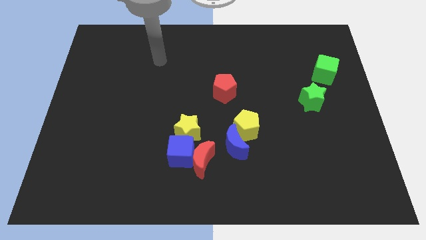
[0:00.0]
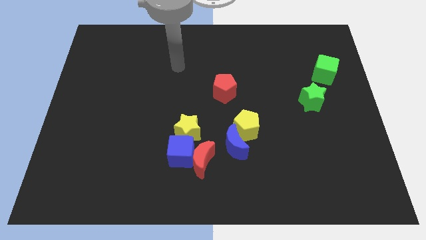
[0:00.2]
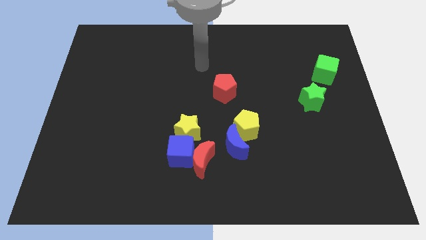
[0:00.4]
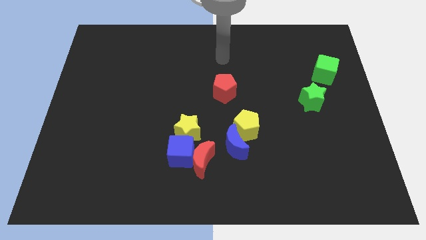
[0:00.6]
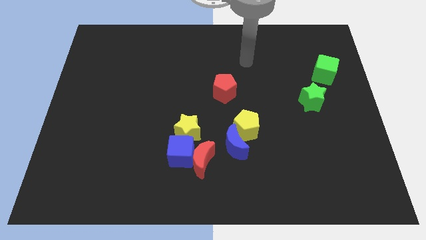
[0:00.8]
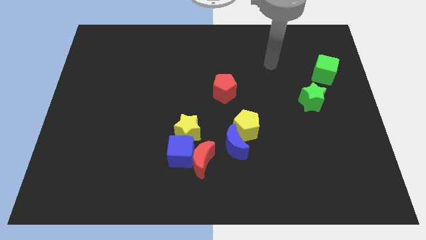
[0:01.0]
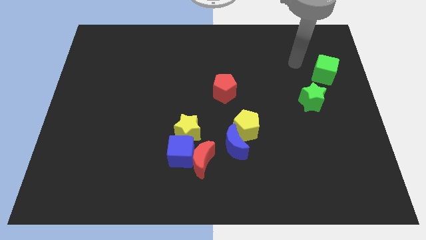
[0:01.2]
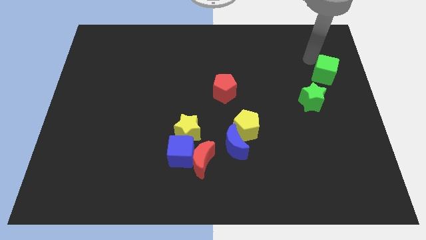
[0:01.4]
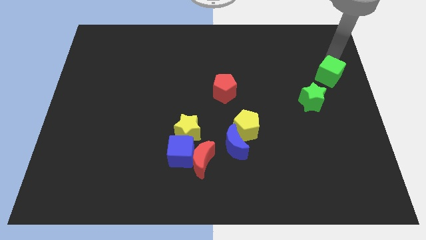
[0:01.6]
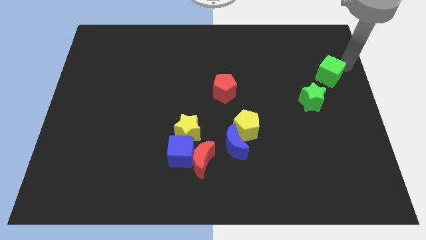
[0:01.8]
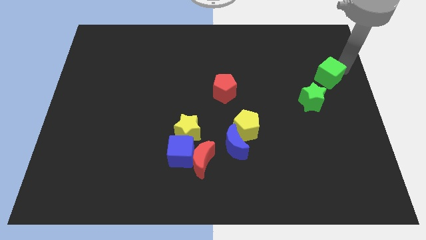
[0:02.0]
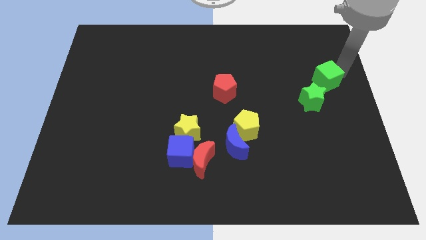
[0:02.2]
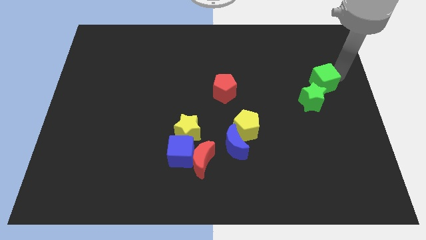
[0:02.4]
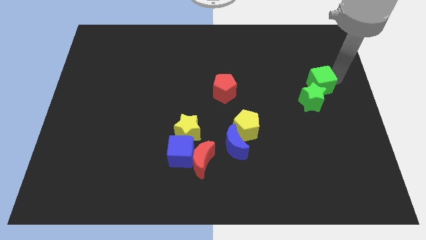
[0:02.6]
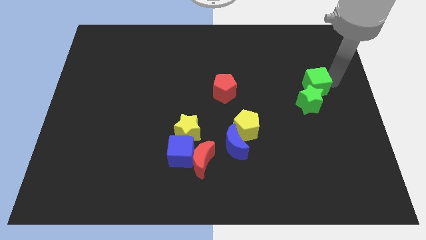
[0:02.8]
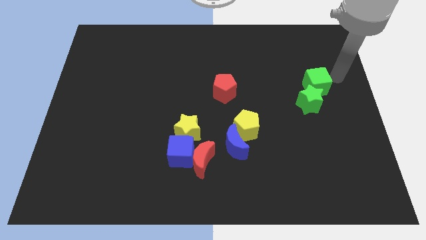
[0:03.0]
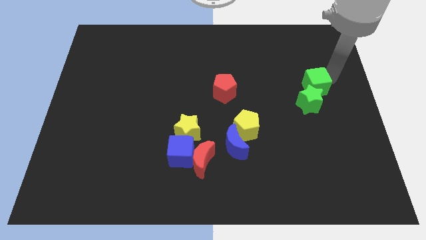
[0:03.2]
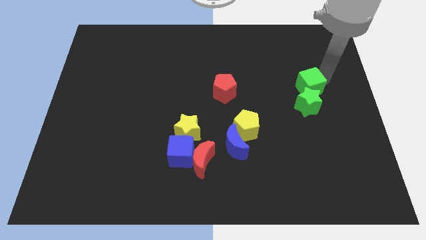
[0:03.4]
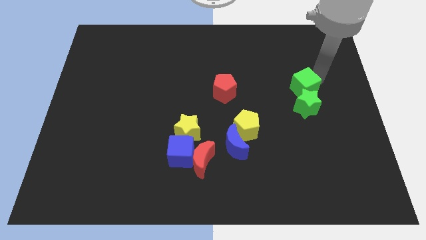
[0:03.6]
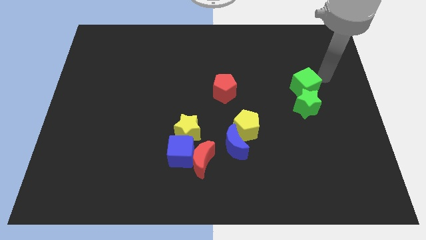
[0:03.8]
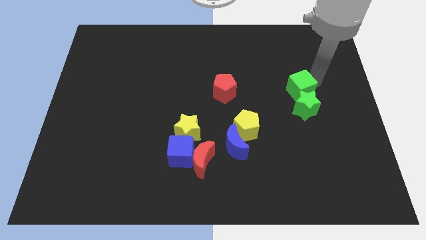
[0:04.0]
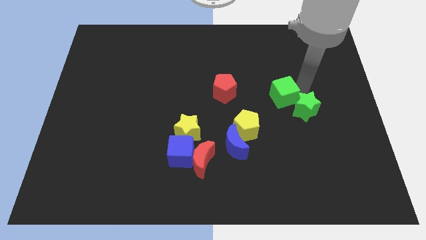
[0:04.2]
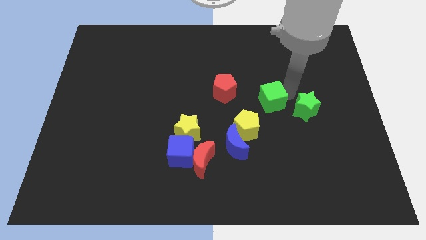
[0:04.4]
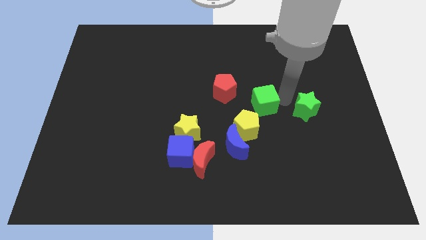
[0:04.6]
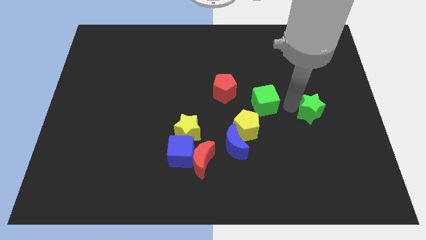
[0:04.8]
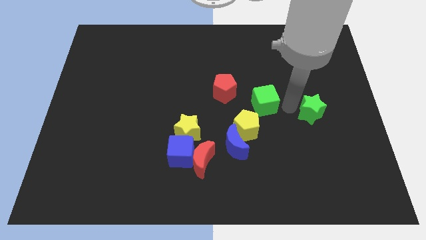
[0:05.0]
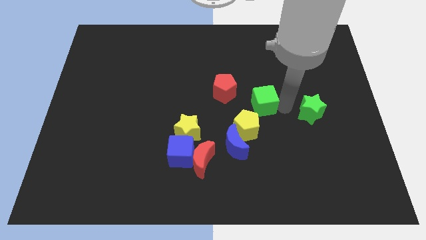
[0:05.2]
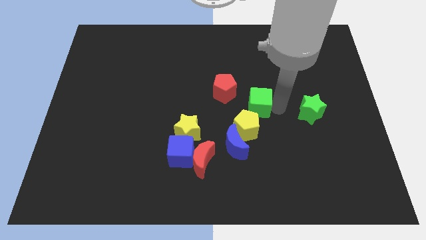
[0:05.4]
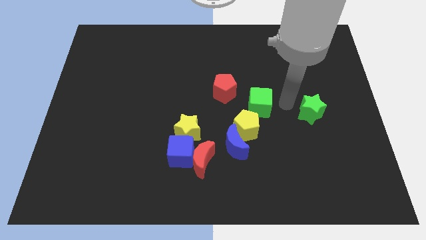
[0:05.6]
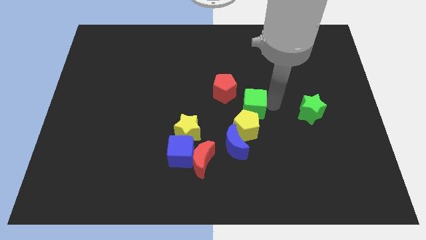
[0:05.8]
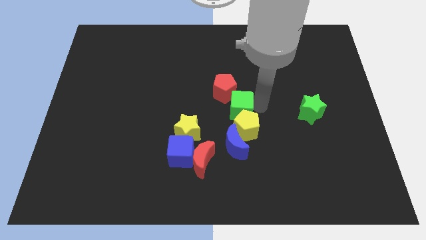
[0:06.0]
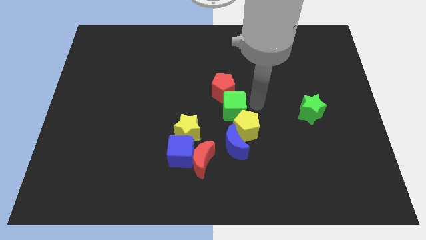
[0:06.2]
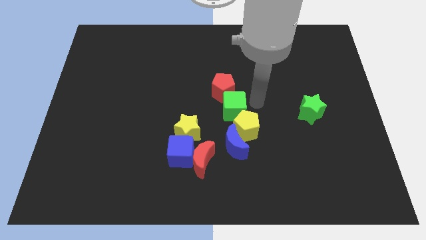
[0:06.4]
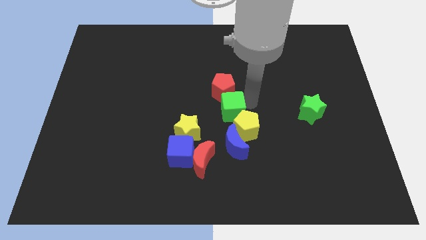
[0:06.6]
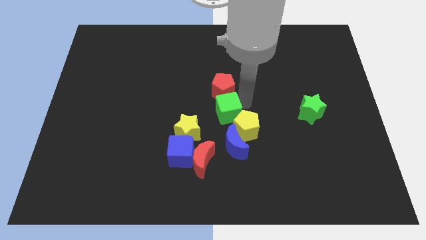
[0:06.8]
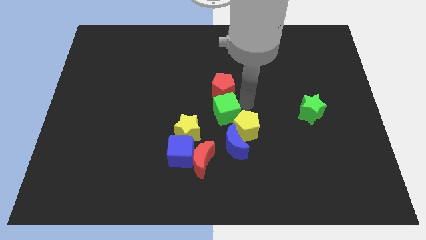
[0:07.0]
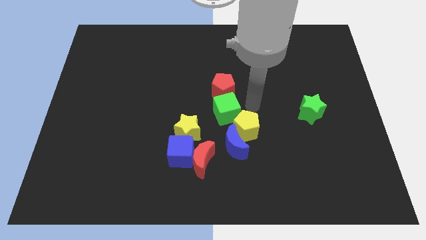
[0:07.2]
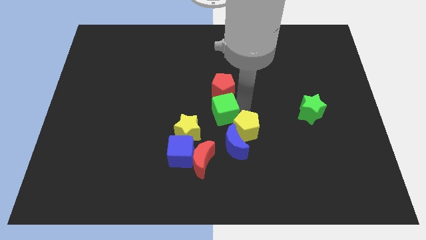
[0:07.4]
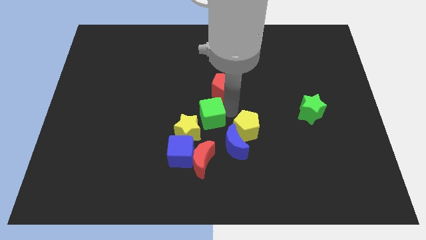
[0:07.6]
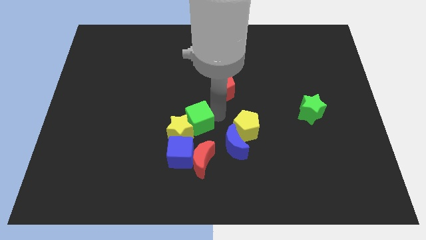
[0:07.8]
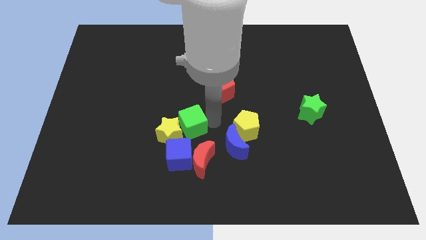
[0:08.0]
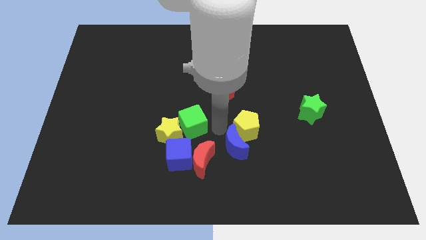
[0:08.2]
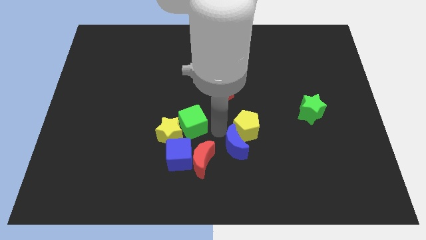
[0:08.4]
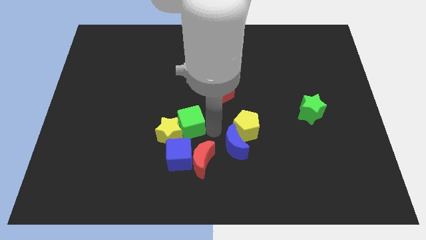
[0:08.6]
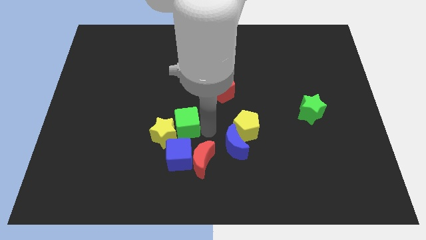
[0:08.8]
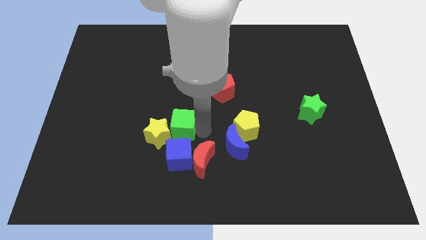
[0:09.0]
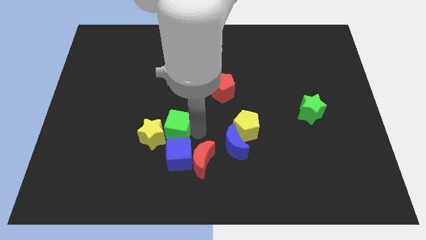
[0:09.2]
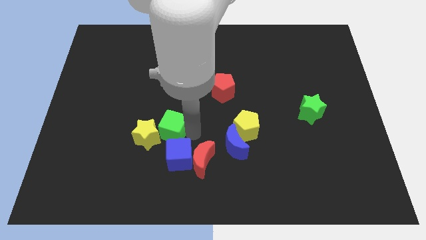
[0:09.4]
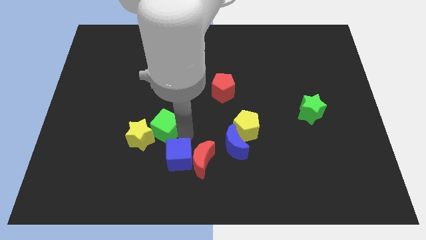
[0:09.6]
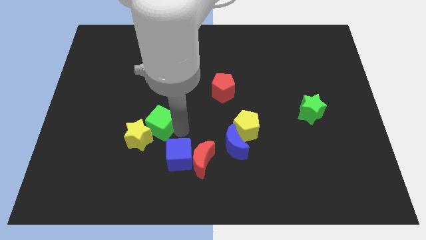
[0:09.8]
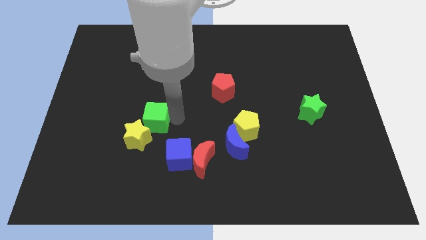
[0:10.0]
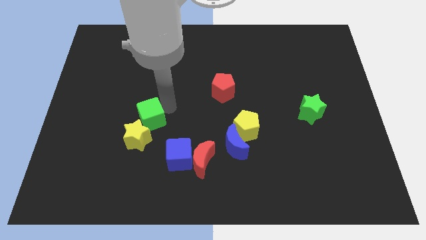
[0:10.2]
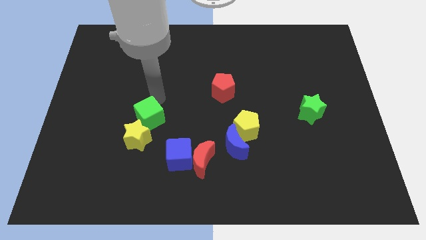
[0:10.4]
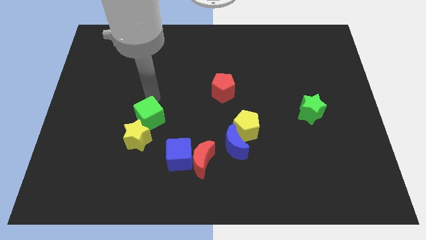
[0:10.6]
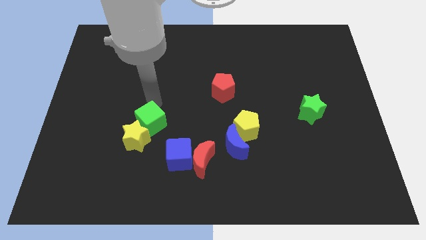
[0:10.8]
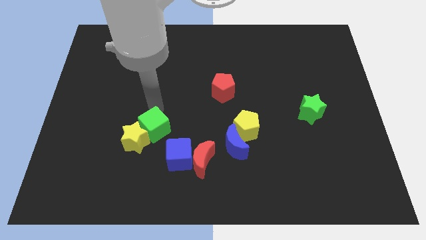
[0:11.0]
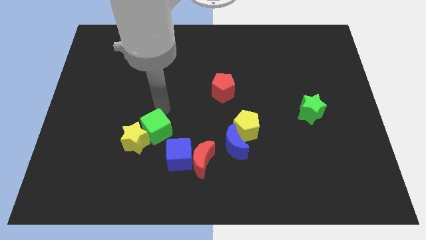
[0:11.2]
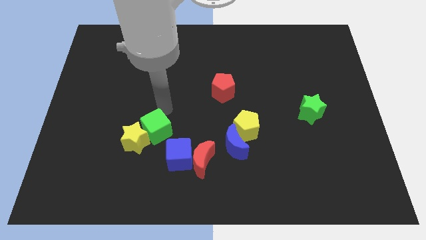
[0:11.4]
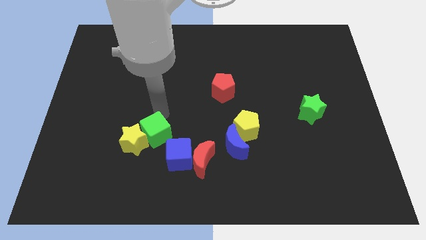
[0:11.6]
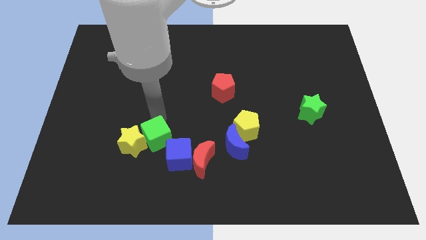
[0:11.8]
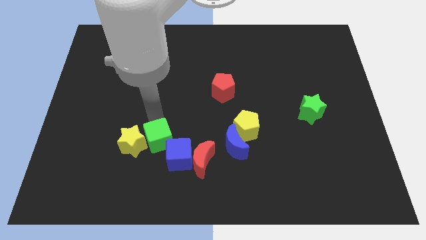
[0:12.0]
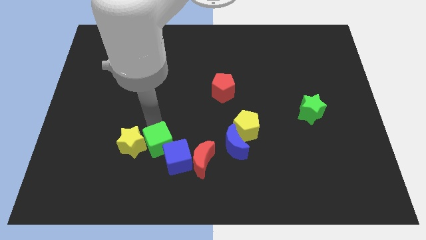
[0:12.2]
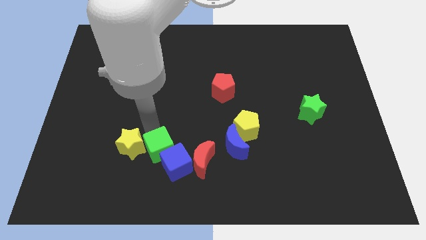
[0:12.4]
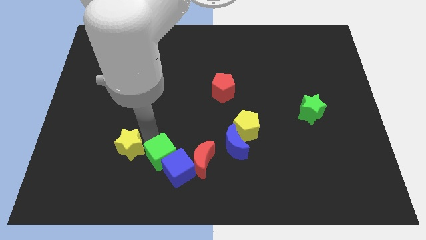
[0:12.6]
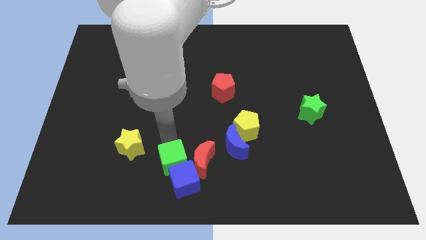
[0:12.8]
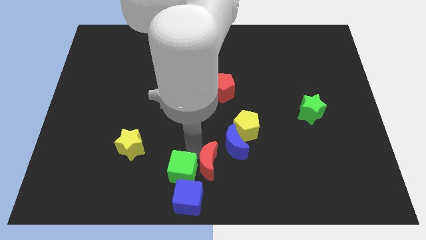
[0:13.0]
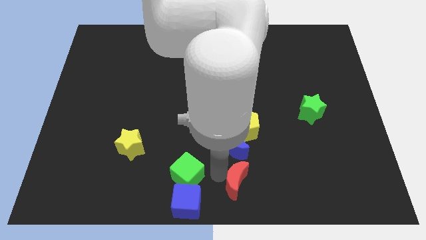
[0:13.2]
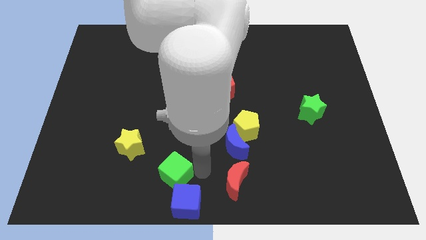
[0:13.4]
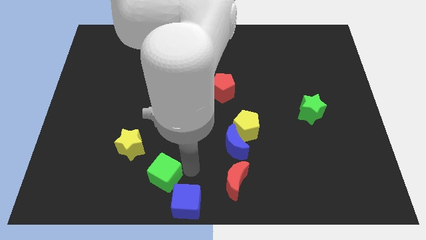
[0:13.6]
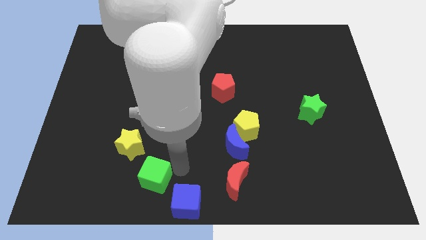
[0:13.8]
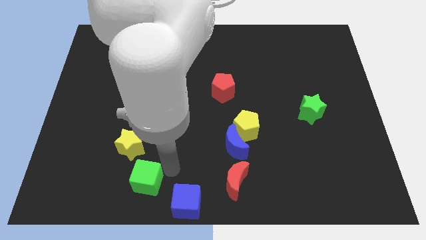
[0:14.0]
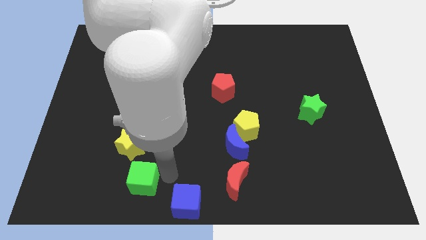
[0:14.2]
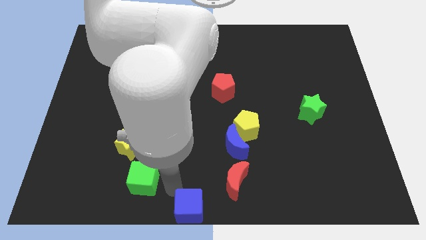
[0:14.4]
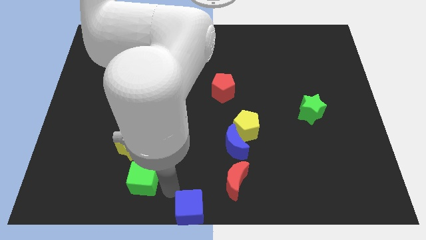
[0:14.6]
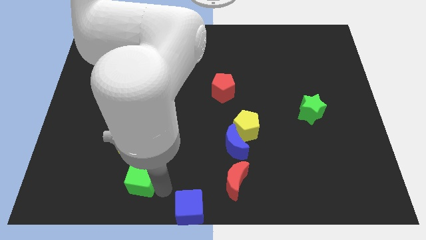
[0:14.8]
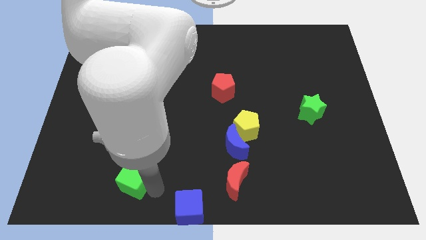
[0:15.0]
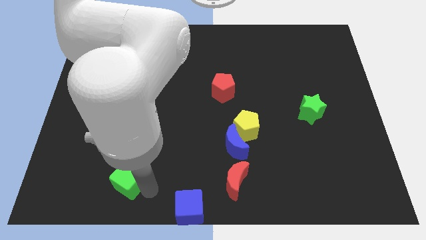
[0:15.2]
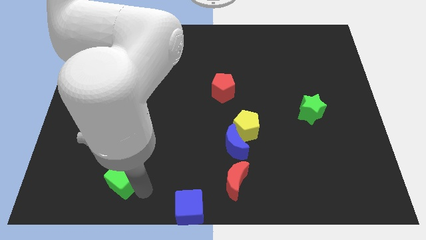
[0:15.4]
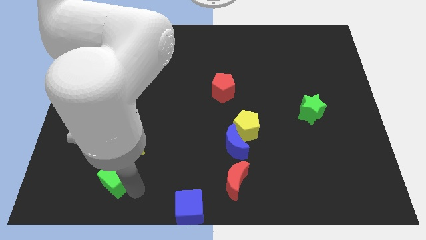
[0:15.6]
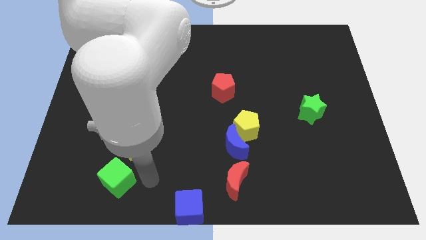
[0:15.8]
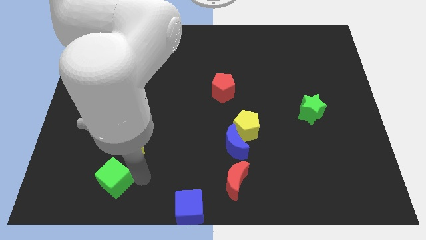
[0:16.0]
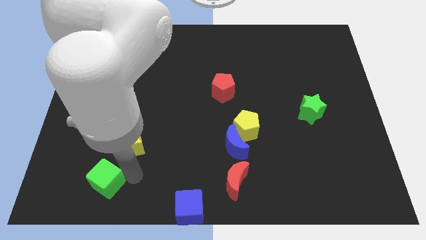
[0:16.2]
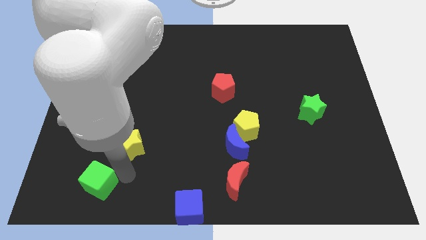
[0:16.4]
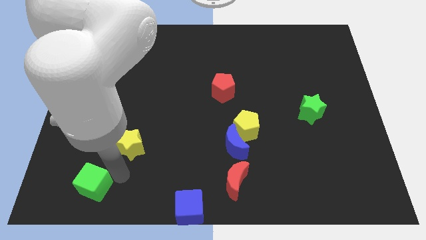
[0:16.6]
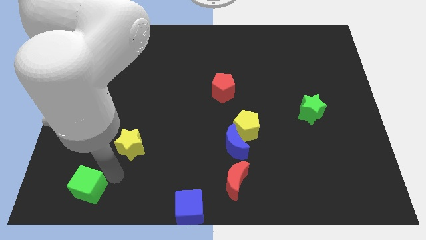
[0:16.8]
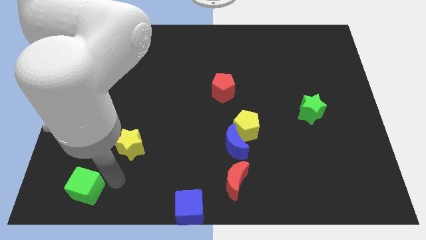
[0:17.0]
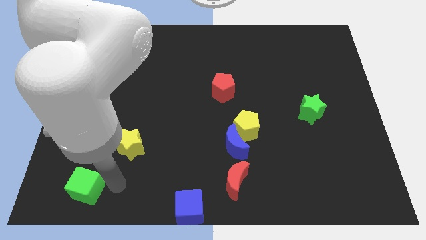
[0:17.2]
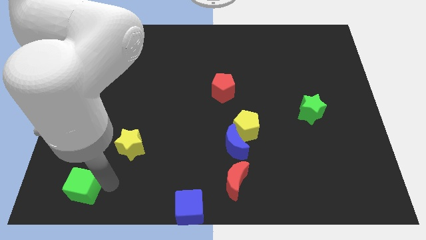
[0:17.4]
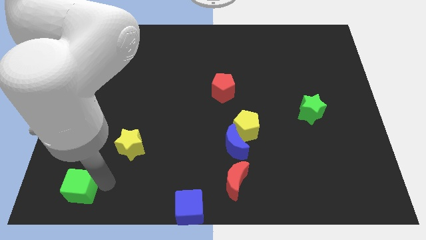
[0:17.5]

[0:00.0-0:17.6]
push the green cube to the bottom left of the board
